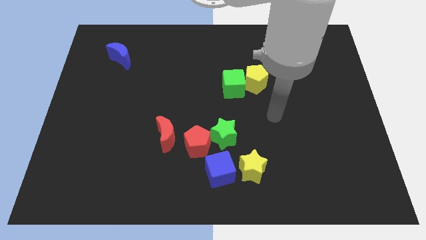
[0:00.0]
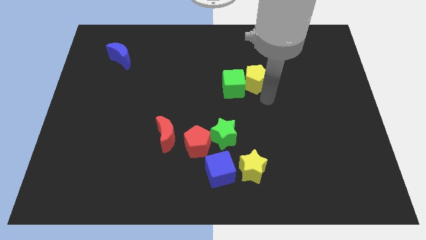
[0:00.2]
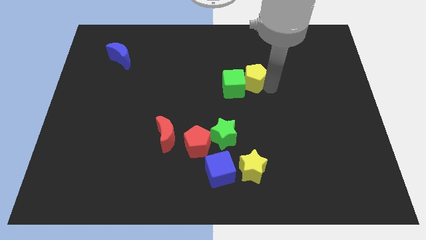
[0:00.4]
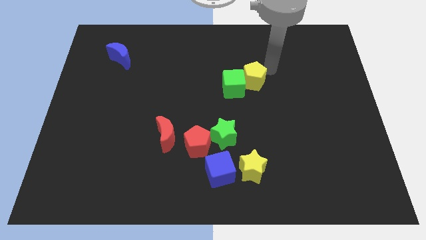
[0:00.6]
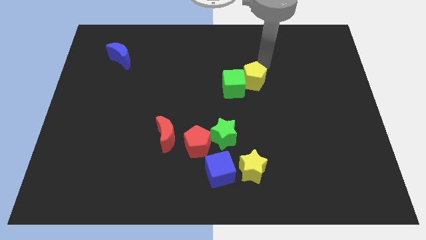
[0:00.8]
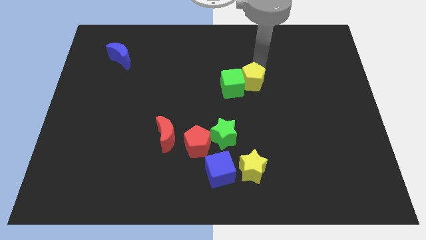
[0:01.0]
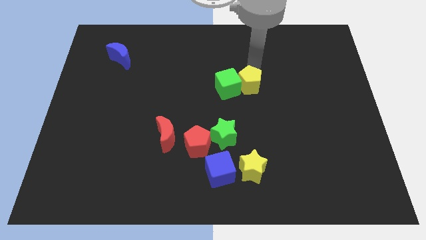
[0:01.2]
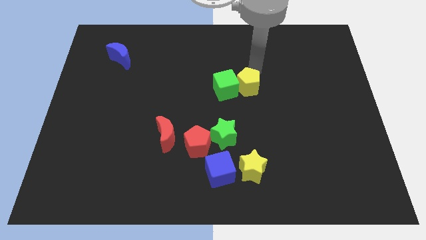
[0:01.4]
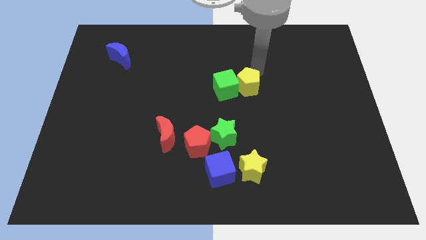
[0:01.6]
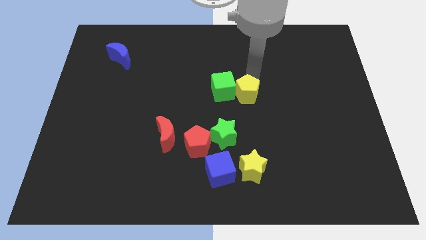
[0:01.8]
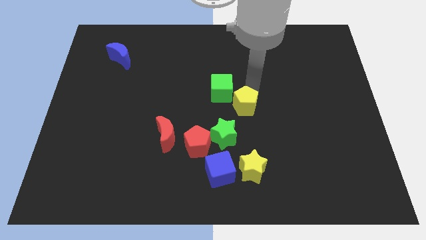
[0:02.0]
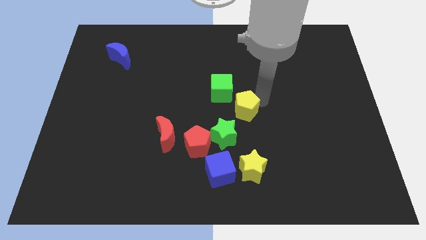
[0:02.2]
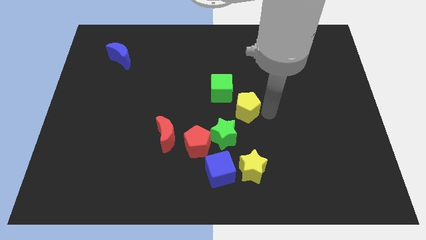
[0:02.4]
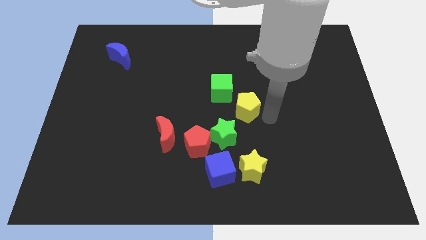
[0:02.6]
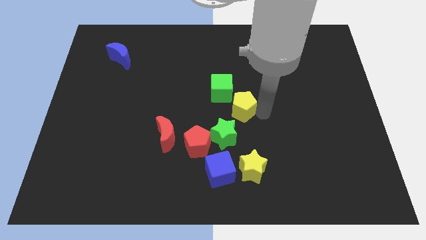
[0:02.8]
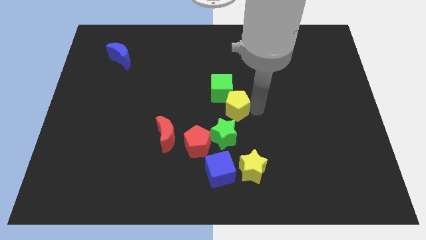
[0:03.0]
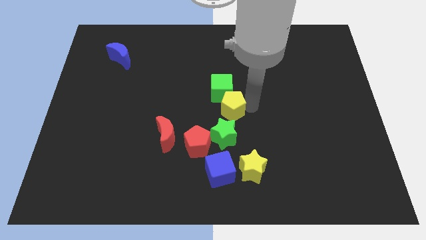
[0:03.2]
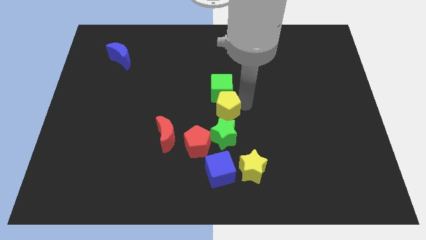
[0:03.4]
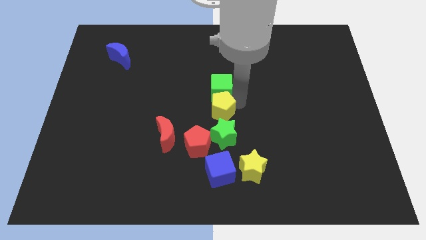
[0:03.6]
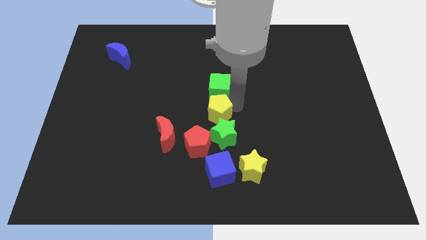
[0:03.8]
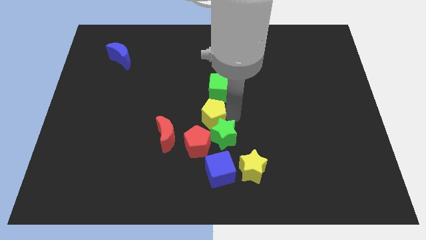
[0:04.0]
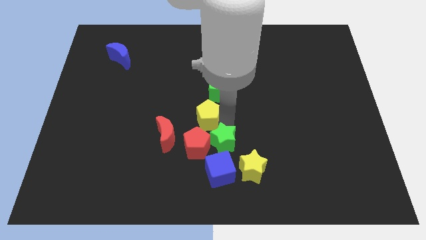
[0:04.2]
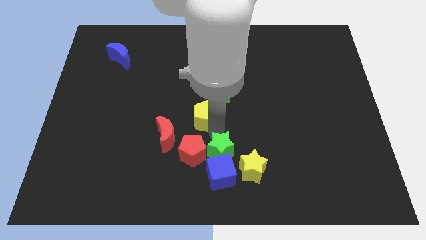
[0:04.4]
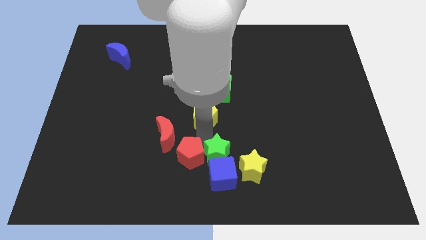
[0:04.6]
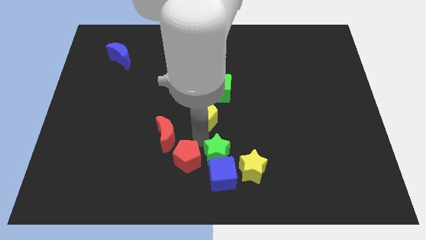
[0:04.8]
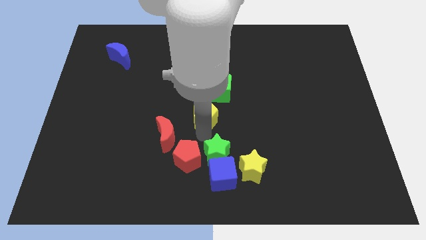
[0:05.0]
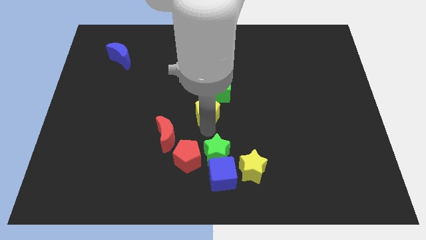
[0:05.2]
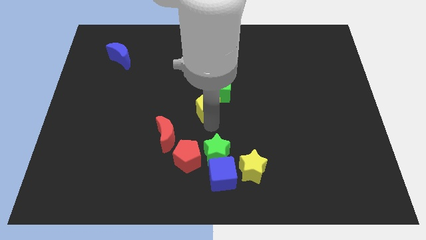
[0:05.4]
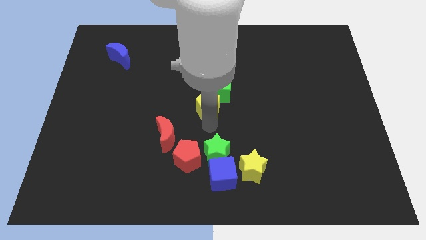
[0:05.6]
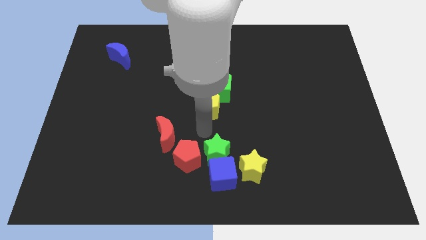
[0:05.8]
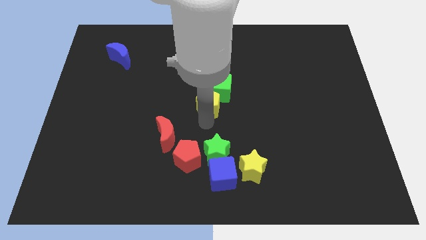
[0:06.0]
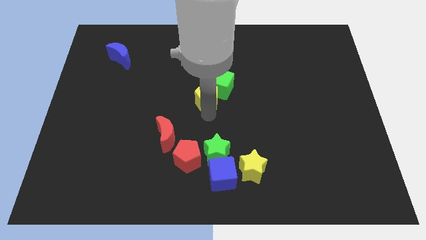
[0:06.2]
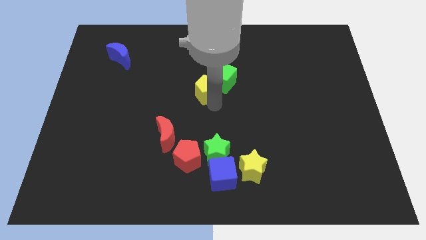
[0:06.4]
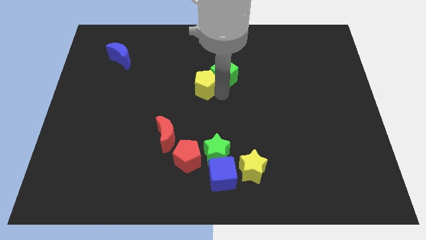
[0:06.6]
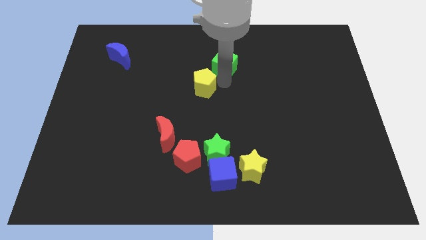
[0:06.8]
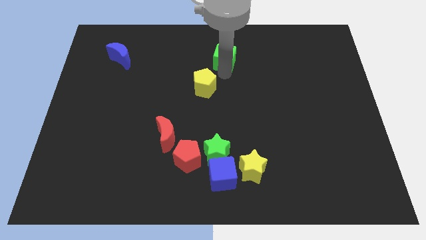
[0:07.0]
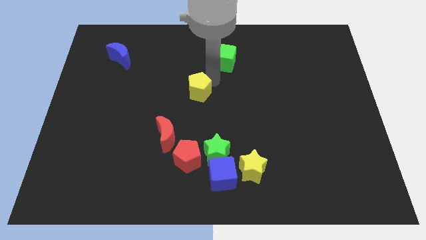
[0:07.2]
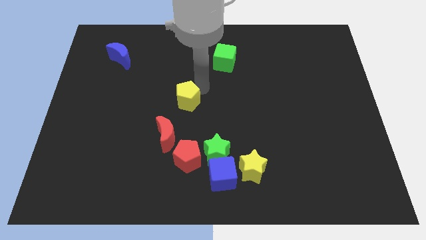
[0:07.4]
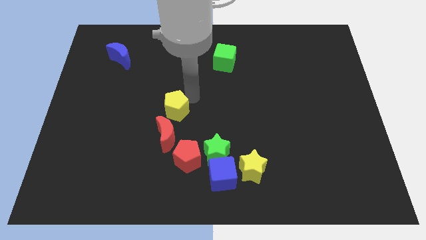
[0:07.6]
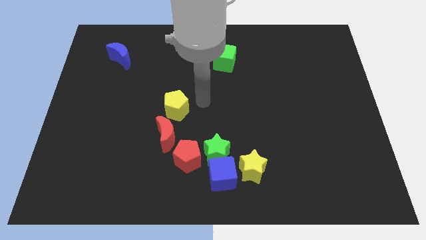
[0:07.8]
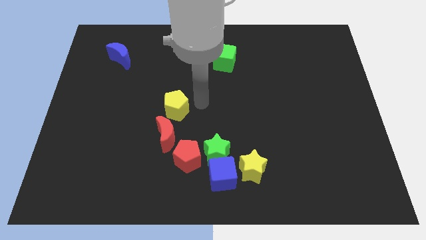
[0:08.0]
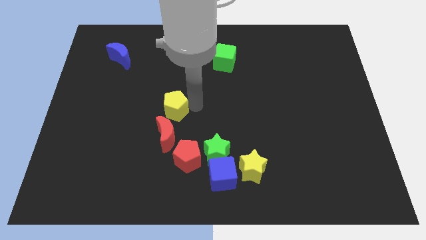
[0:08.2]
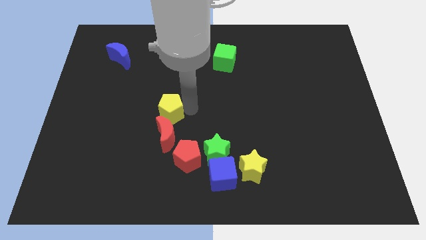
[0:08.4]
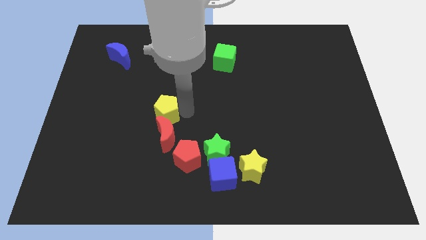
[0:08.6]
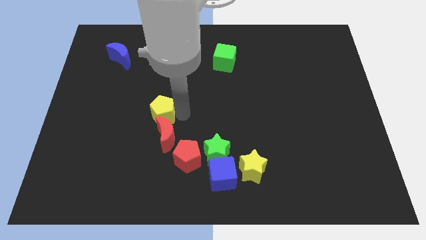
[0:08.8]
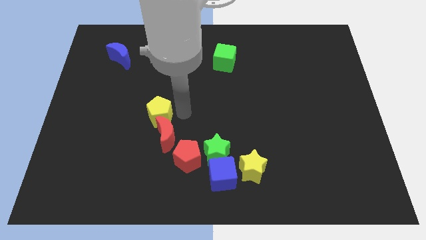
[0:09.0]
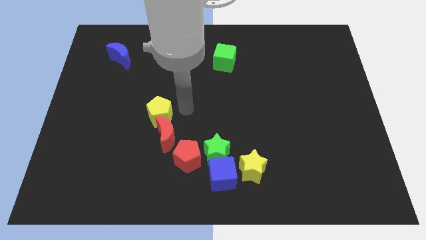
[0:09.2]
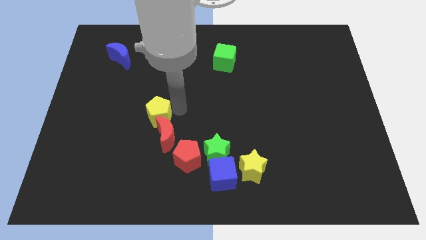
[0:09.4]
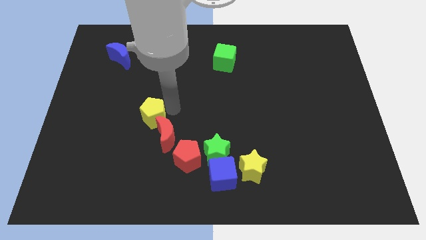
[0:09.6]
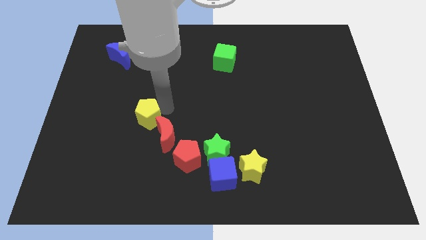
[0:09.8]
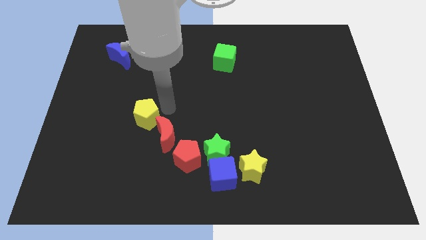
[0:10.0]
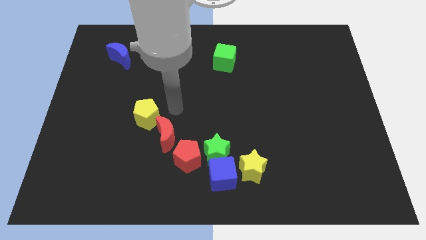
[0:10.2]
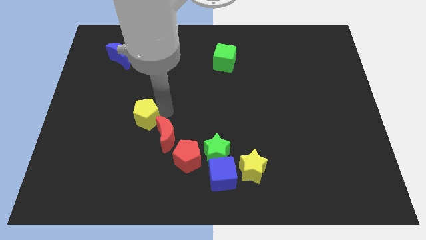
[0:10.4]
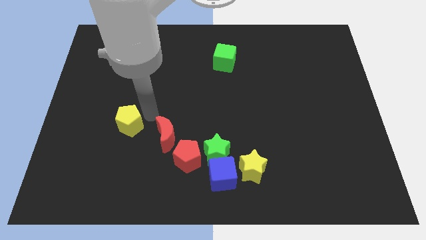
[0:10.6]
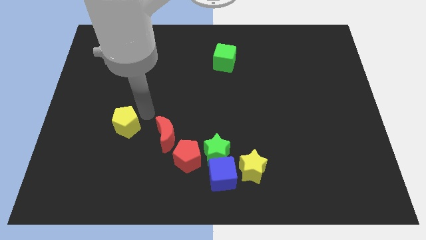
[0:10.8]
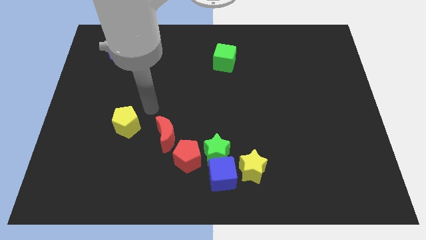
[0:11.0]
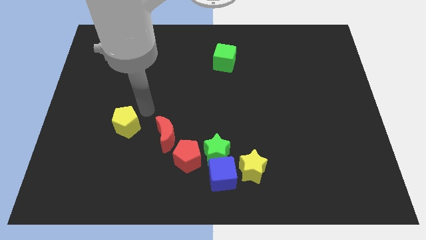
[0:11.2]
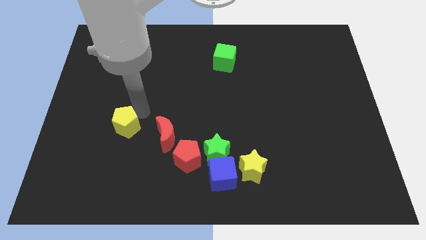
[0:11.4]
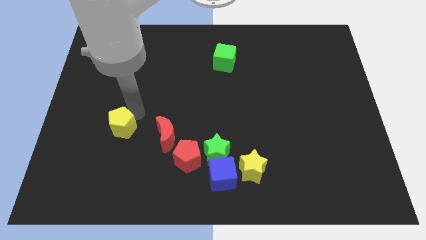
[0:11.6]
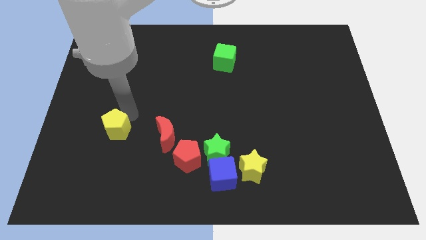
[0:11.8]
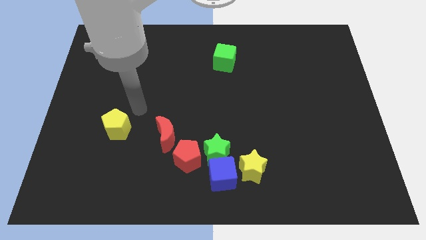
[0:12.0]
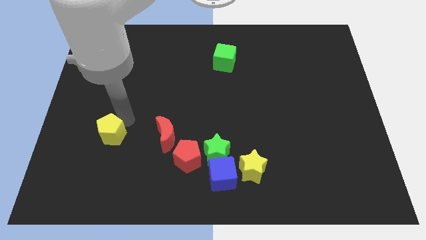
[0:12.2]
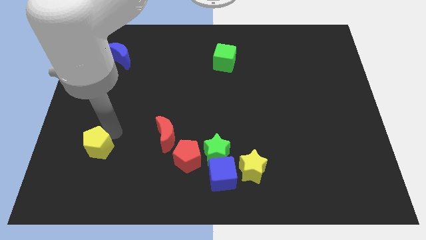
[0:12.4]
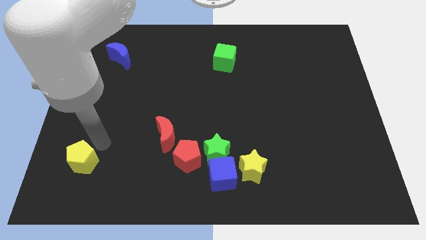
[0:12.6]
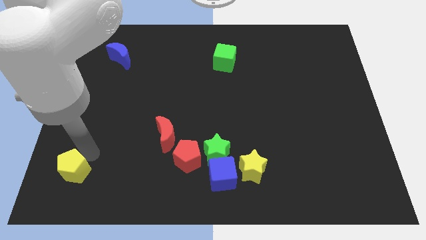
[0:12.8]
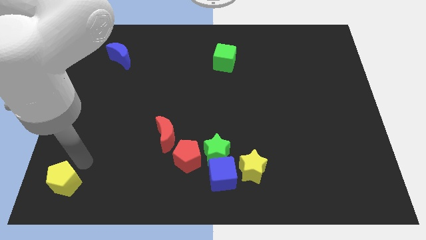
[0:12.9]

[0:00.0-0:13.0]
move the yellow pentagon to the bottom left
